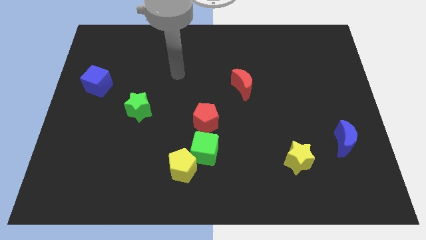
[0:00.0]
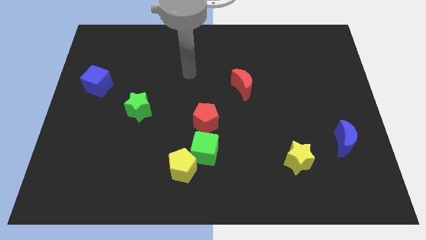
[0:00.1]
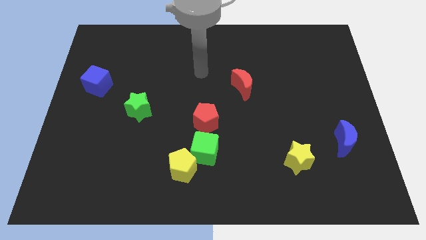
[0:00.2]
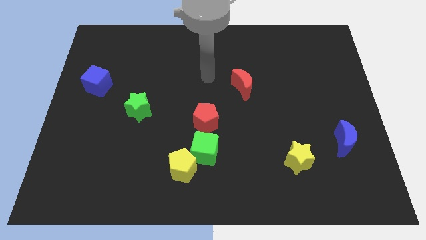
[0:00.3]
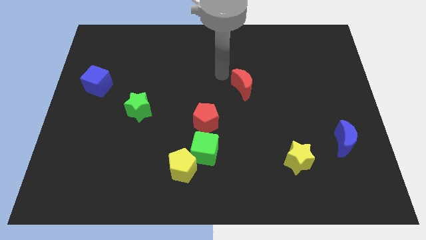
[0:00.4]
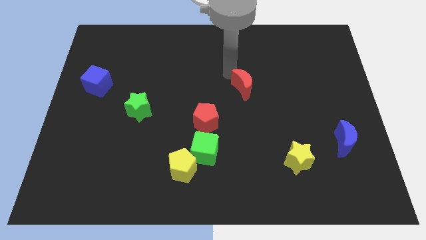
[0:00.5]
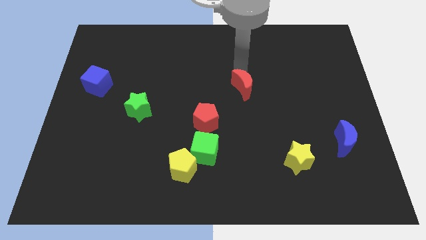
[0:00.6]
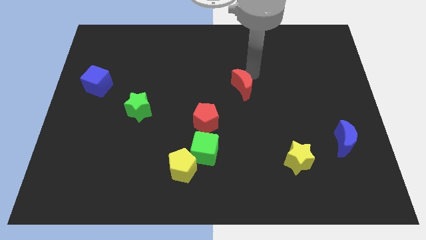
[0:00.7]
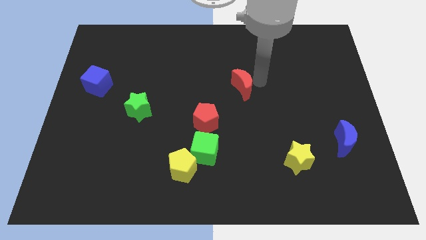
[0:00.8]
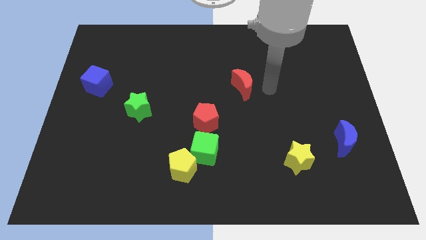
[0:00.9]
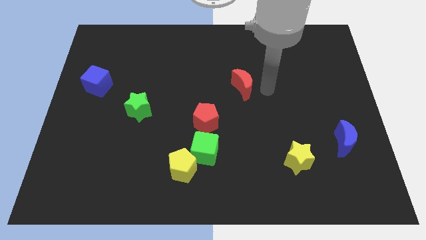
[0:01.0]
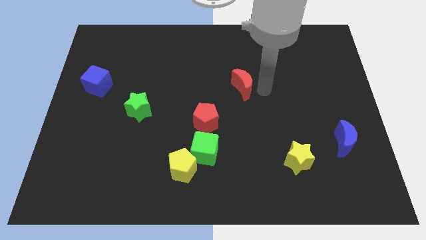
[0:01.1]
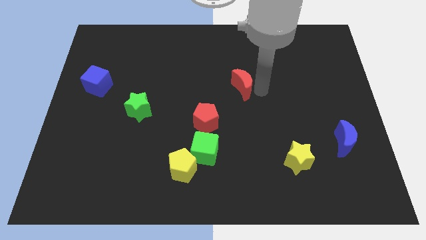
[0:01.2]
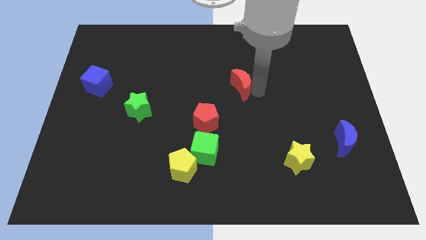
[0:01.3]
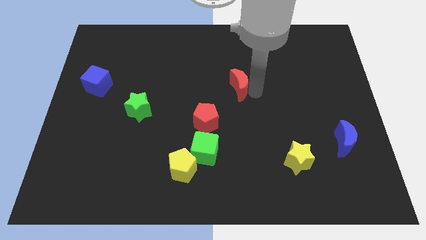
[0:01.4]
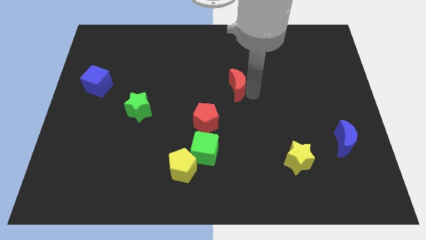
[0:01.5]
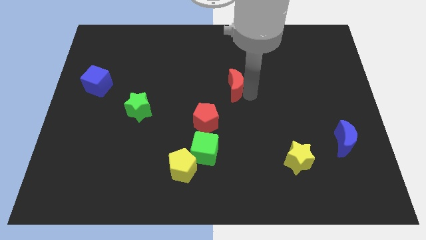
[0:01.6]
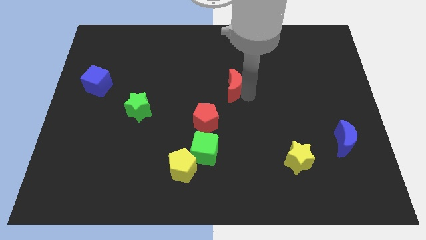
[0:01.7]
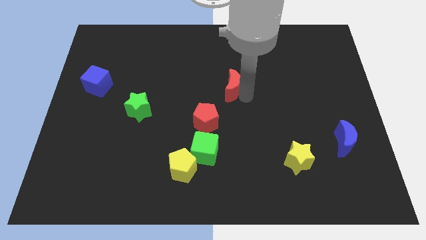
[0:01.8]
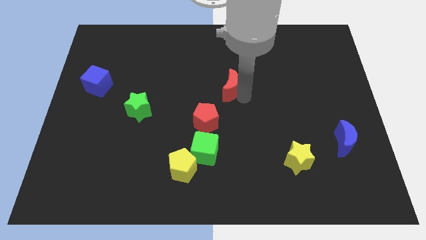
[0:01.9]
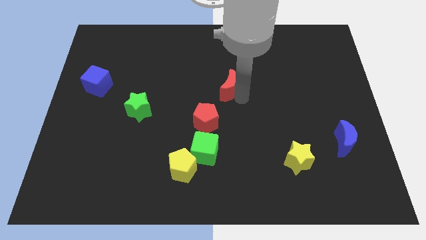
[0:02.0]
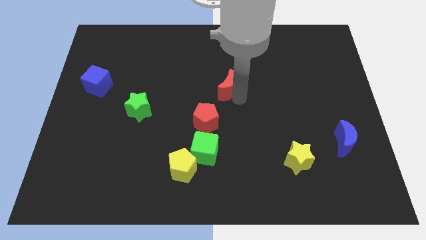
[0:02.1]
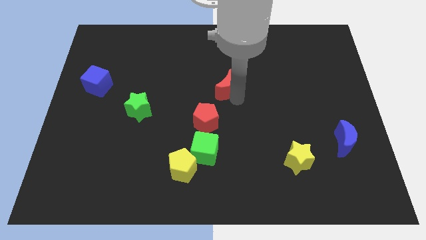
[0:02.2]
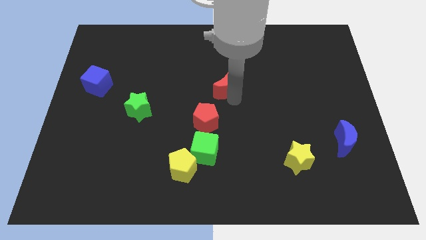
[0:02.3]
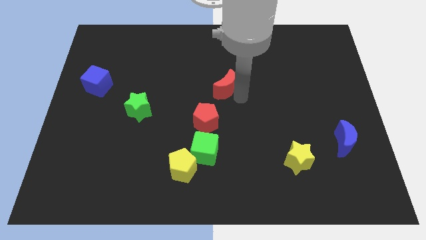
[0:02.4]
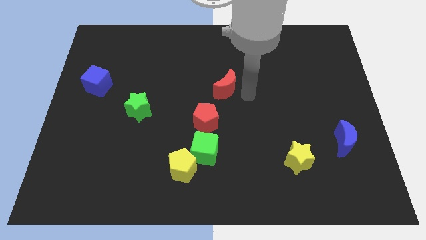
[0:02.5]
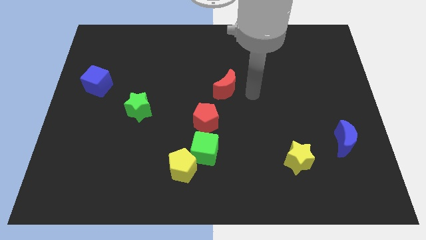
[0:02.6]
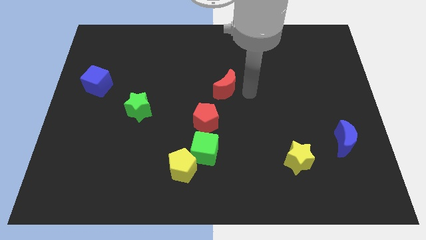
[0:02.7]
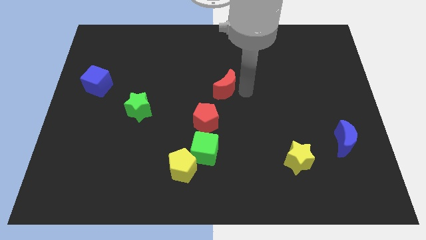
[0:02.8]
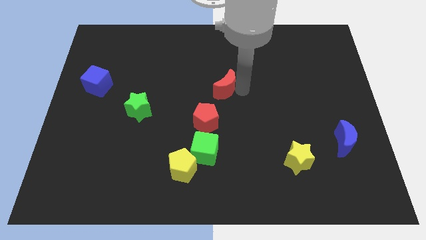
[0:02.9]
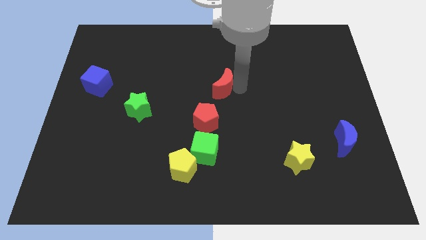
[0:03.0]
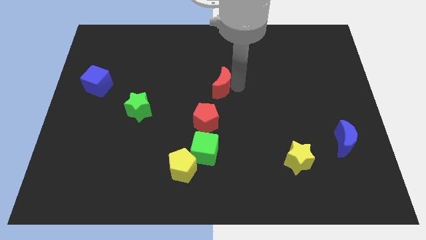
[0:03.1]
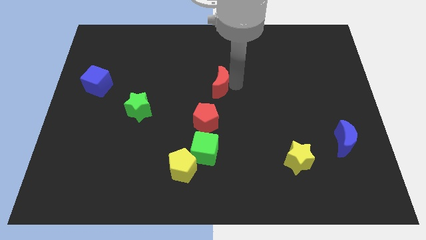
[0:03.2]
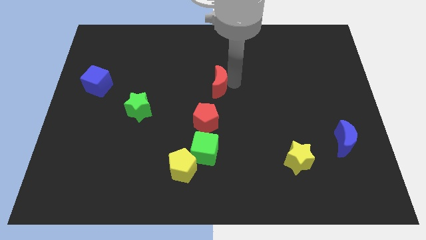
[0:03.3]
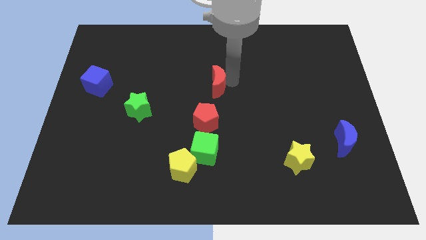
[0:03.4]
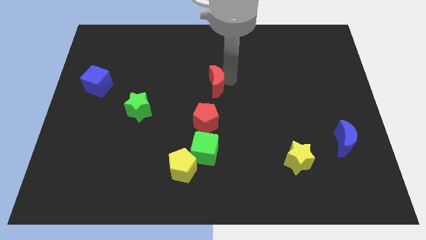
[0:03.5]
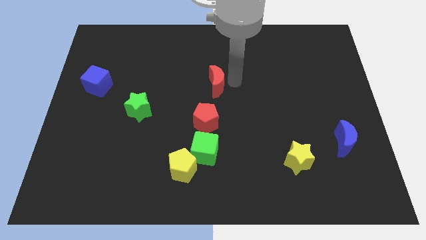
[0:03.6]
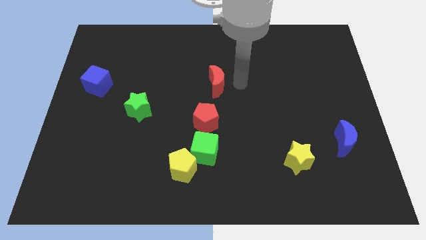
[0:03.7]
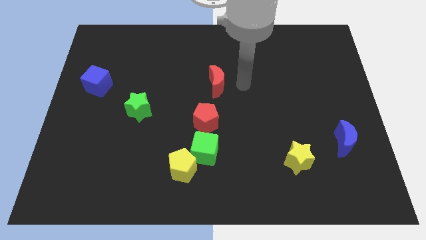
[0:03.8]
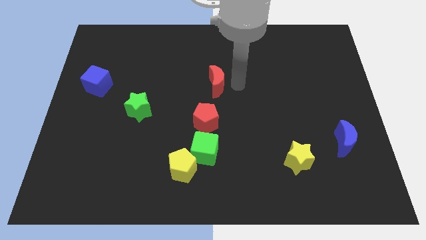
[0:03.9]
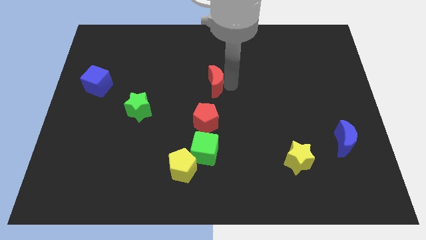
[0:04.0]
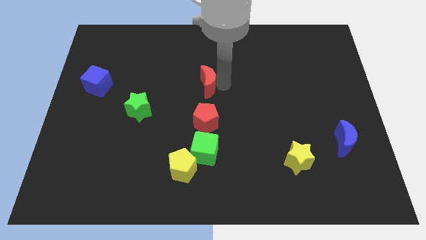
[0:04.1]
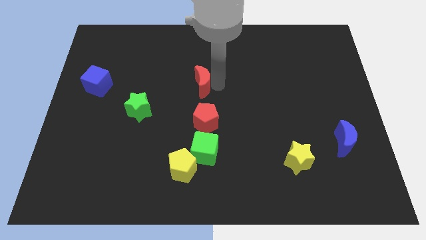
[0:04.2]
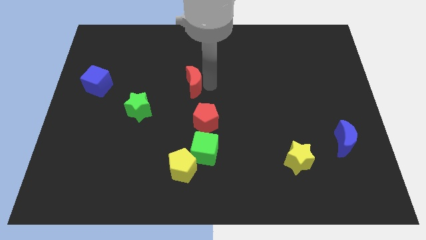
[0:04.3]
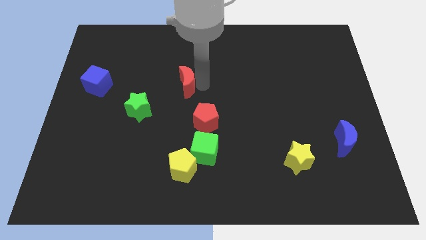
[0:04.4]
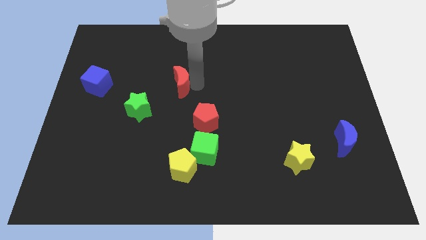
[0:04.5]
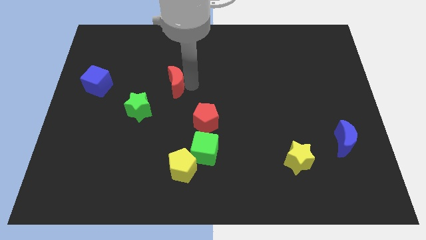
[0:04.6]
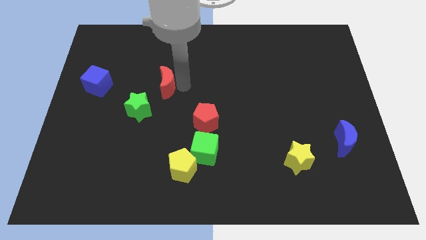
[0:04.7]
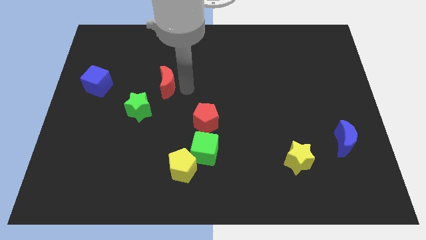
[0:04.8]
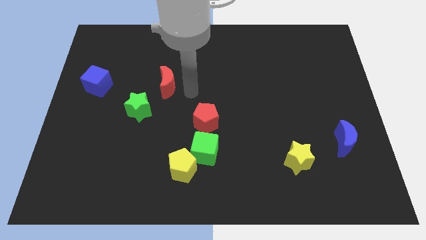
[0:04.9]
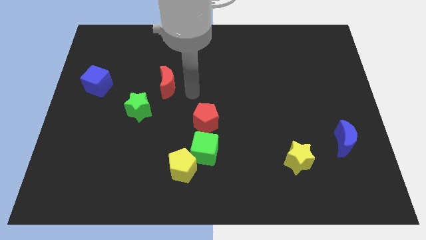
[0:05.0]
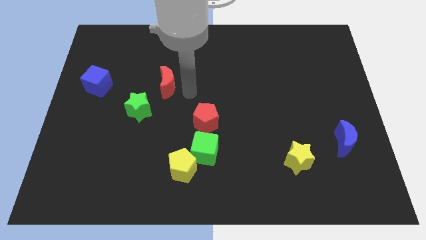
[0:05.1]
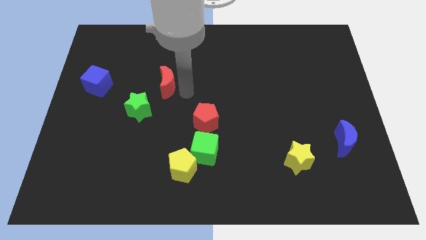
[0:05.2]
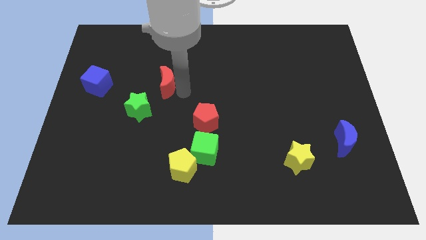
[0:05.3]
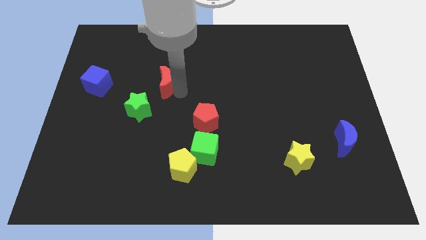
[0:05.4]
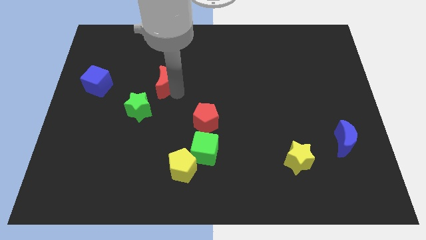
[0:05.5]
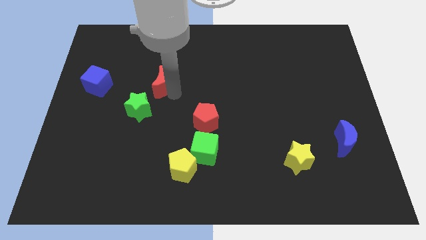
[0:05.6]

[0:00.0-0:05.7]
slide the red moon above the green star

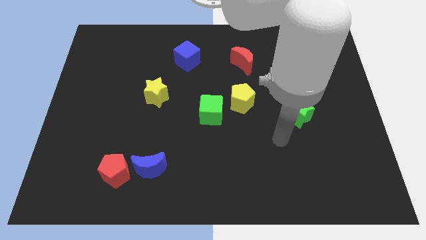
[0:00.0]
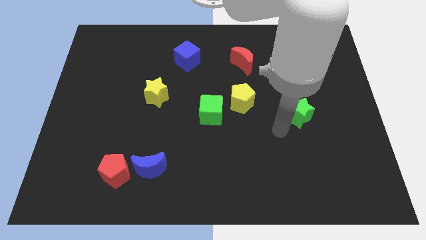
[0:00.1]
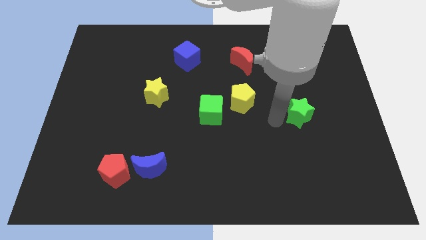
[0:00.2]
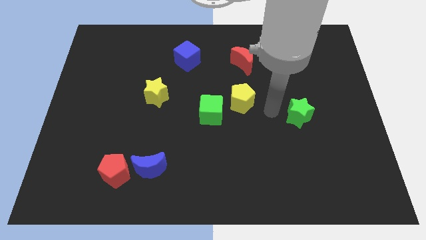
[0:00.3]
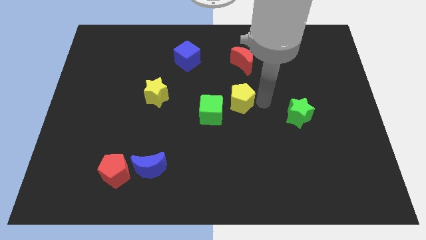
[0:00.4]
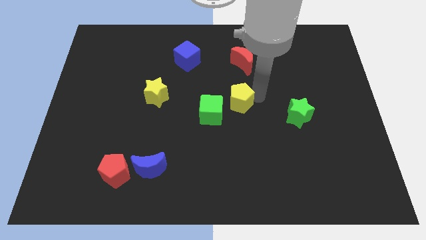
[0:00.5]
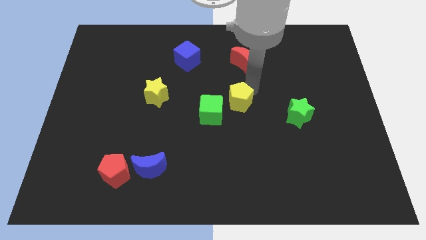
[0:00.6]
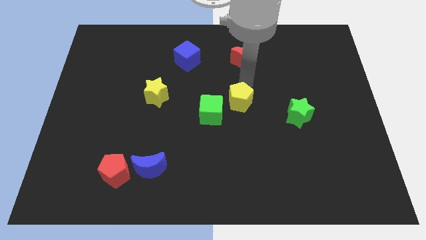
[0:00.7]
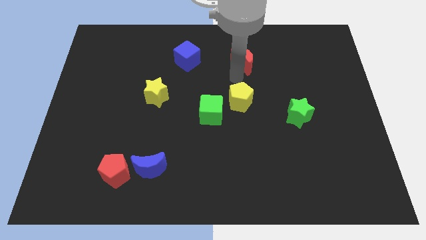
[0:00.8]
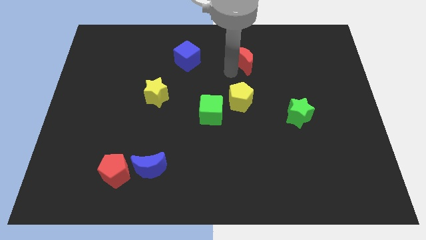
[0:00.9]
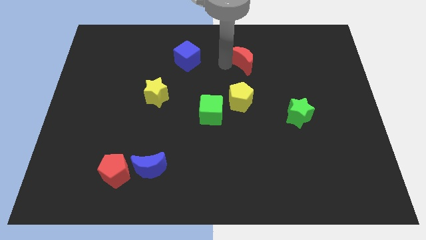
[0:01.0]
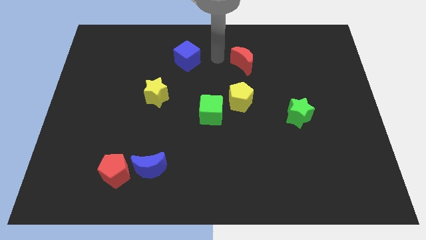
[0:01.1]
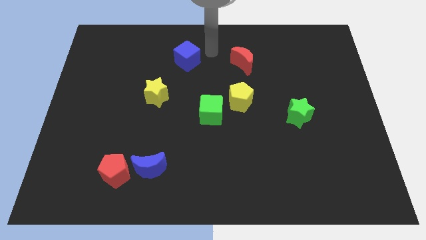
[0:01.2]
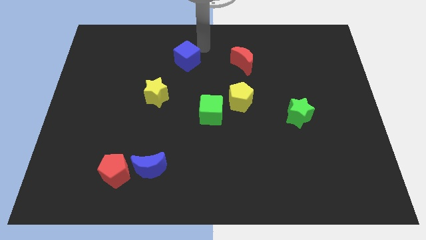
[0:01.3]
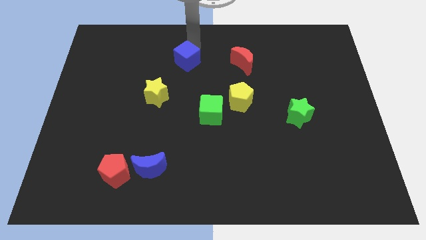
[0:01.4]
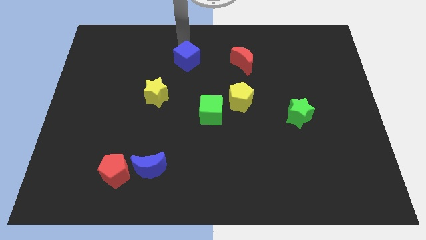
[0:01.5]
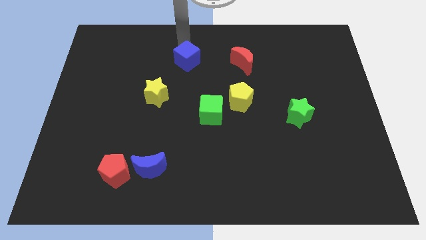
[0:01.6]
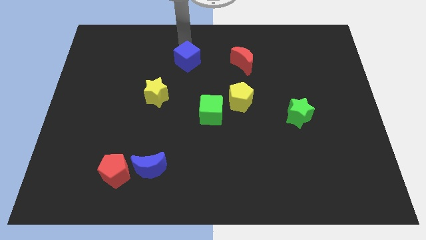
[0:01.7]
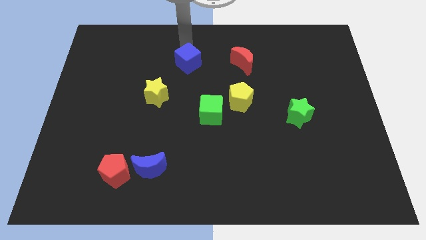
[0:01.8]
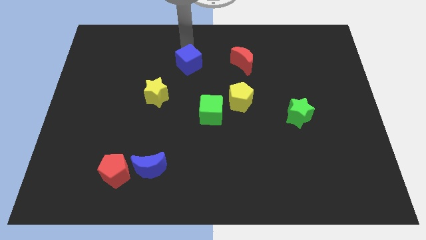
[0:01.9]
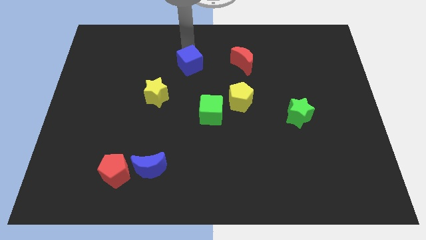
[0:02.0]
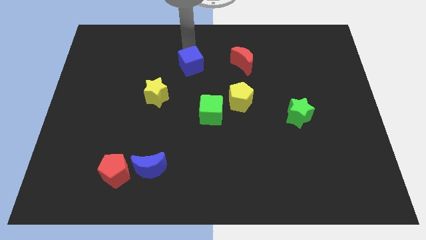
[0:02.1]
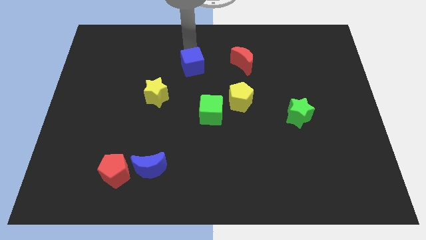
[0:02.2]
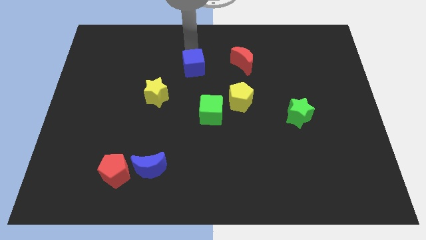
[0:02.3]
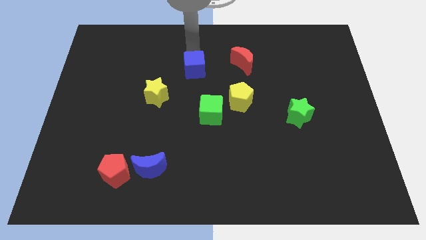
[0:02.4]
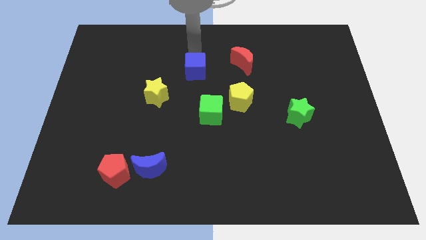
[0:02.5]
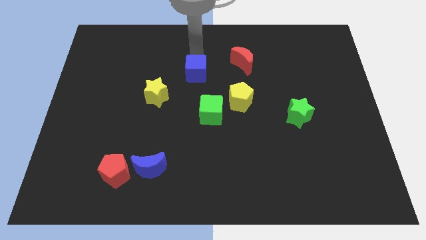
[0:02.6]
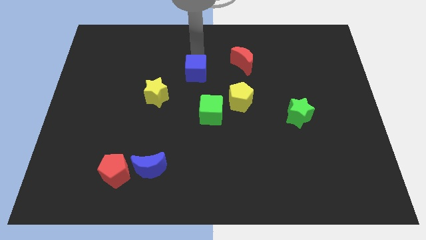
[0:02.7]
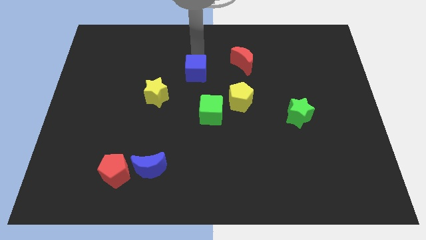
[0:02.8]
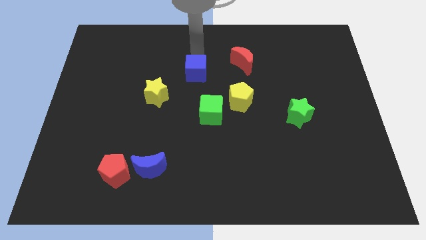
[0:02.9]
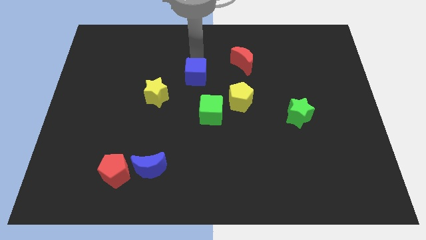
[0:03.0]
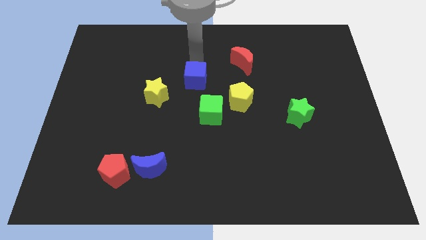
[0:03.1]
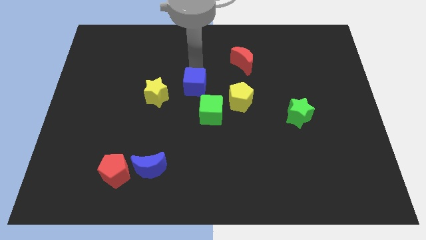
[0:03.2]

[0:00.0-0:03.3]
put the blue cube just left of the yellow pentagon
